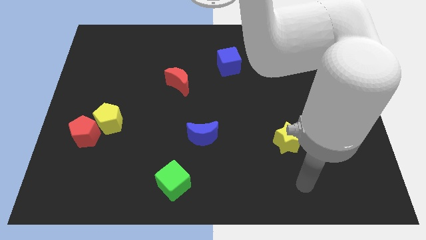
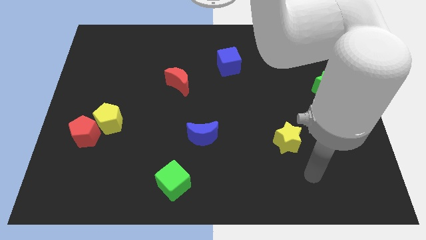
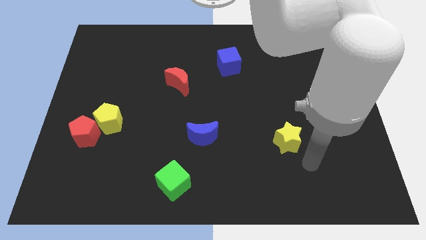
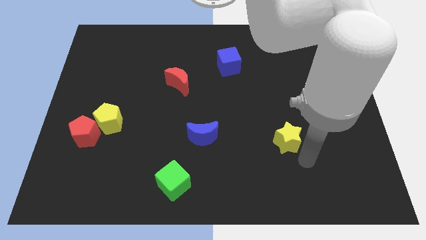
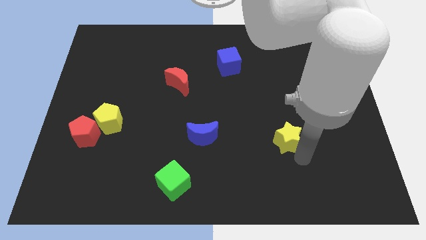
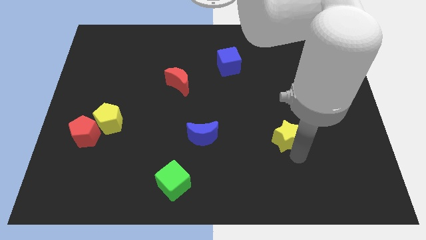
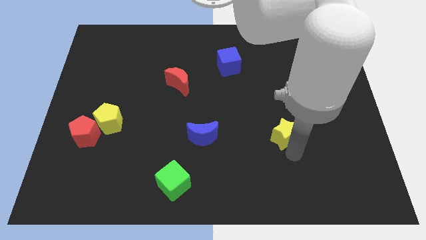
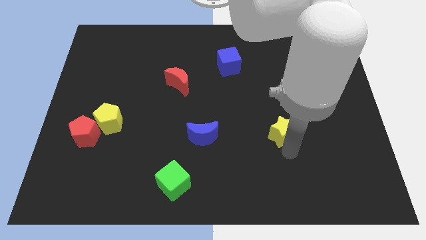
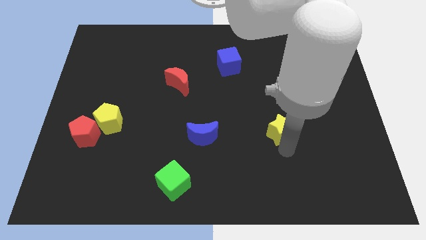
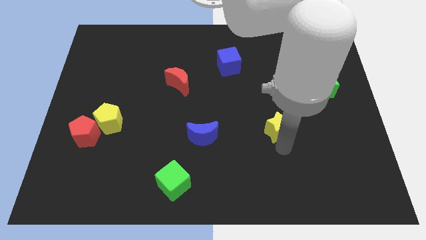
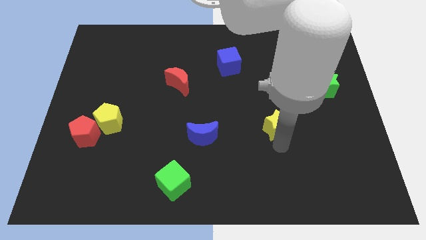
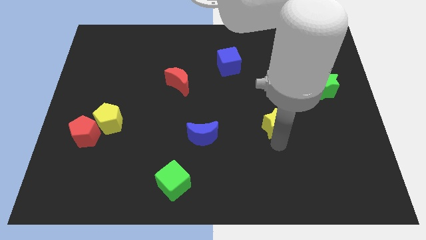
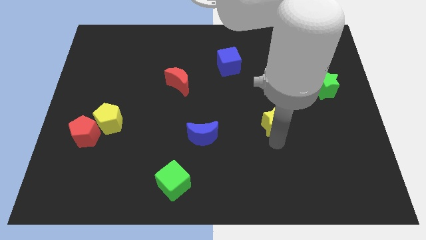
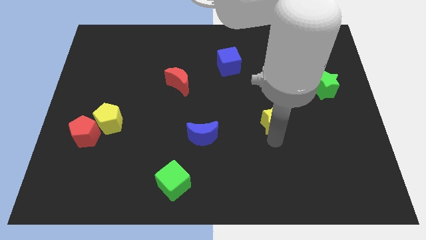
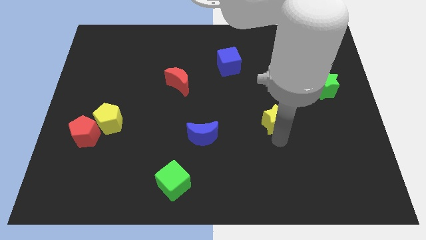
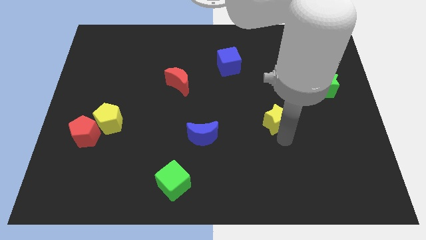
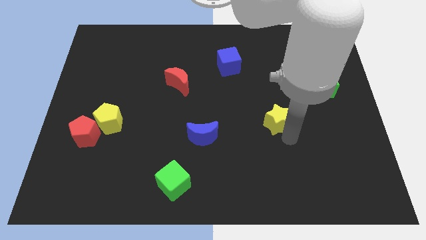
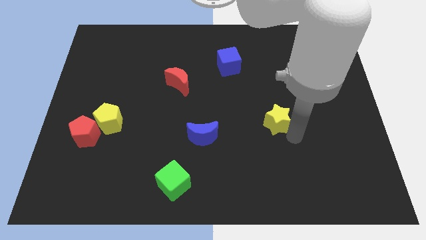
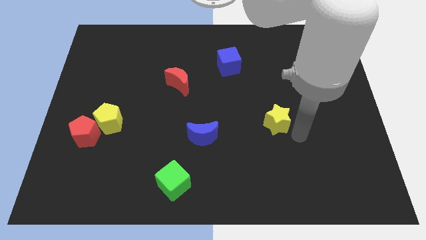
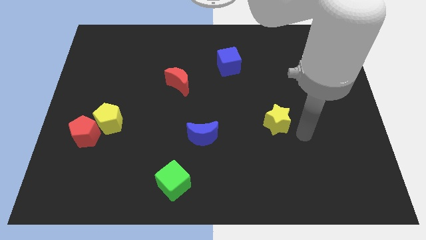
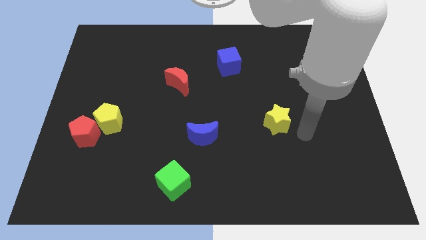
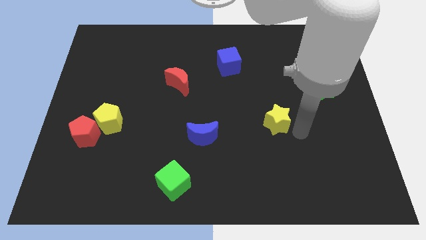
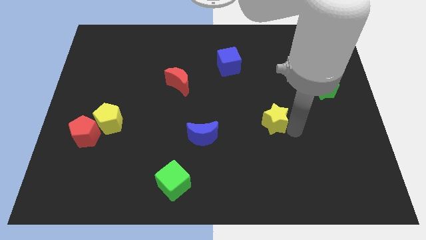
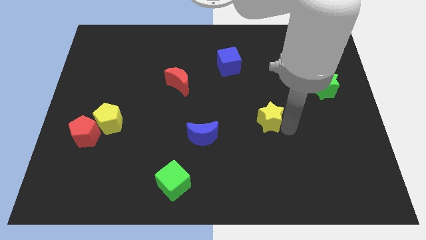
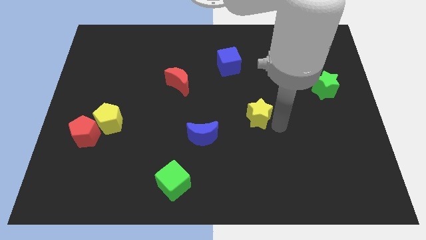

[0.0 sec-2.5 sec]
slightly move the yellow star diagonally upwards and to the left

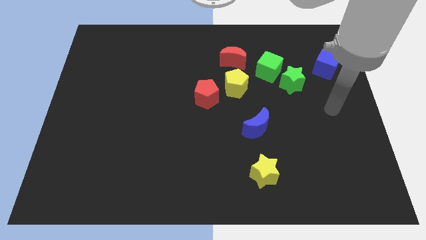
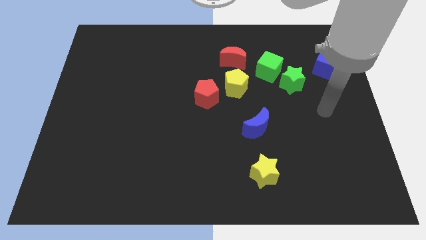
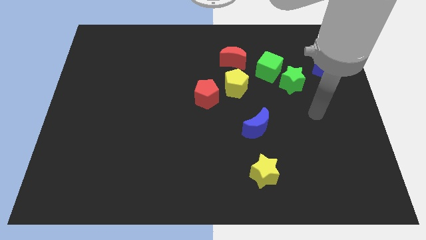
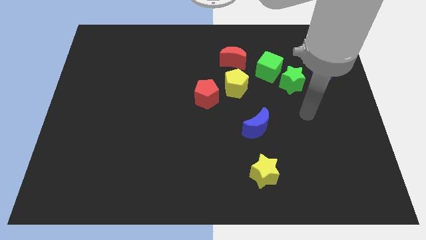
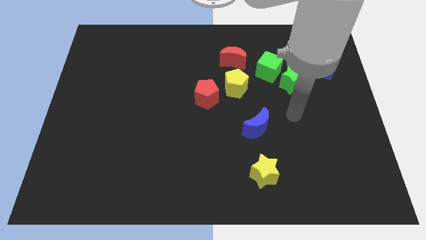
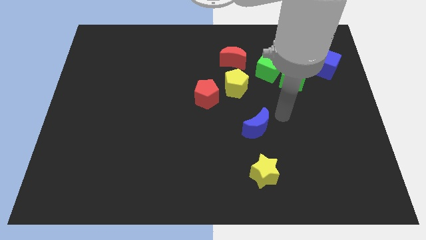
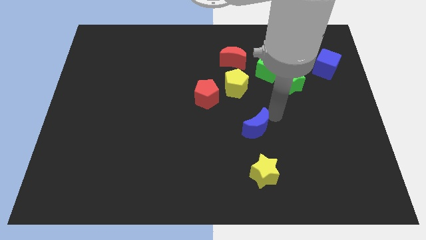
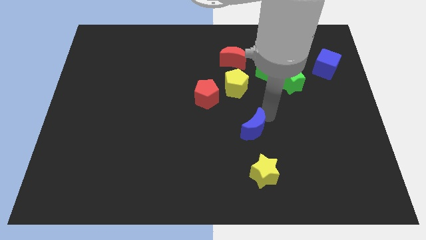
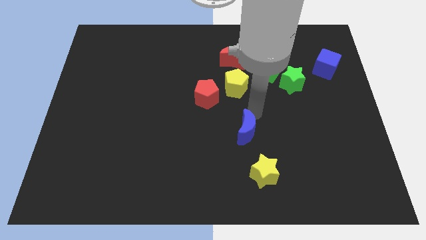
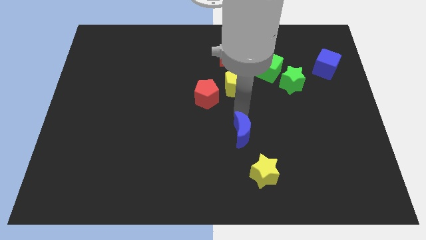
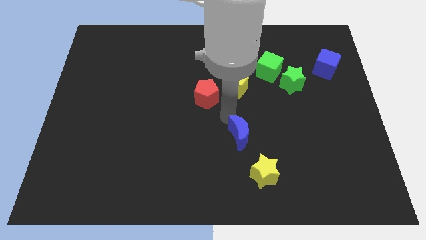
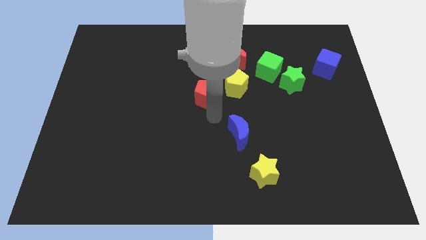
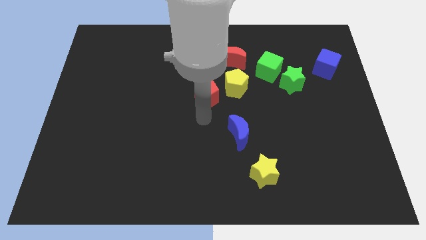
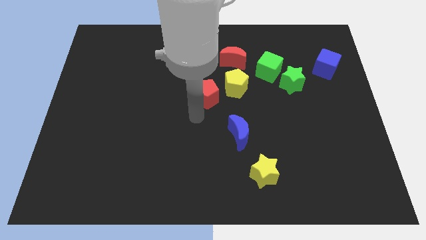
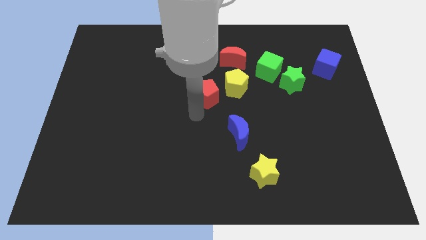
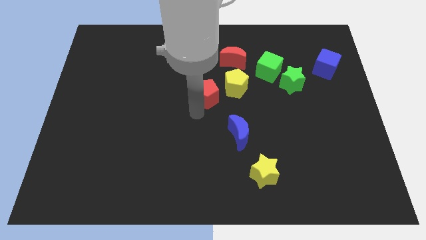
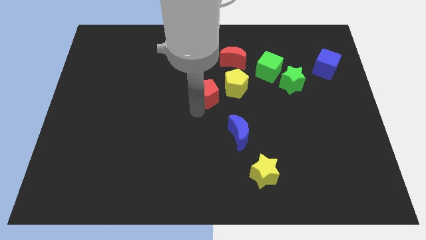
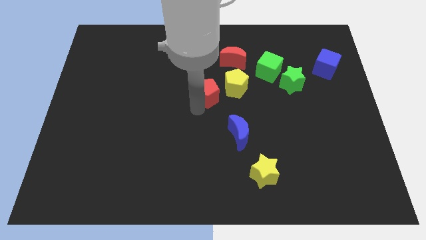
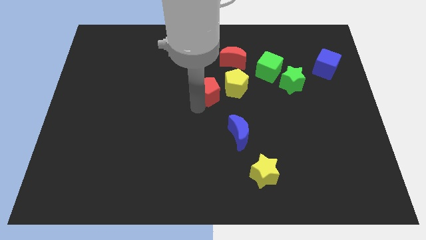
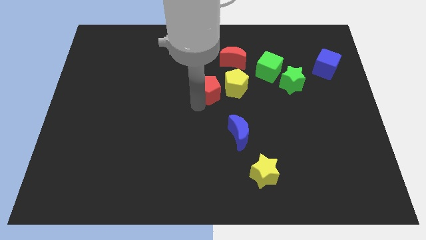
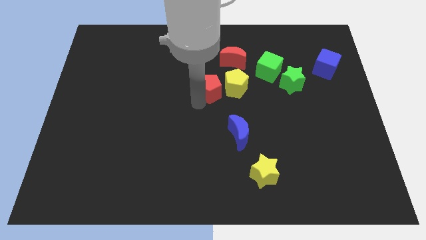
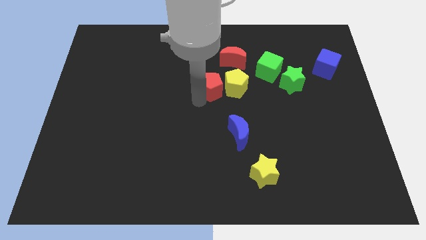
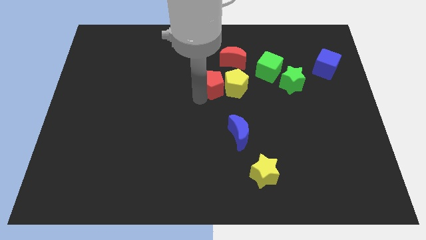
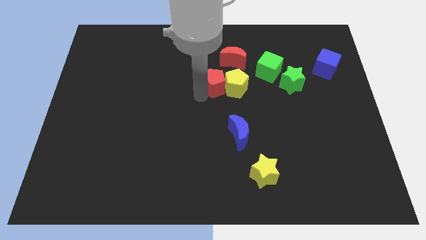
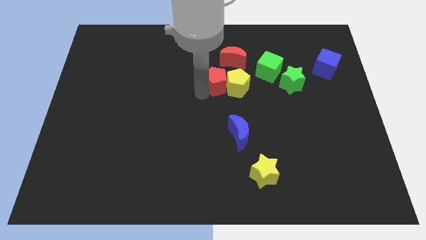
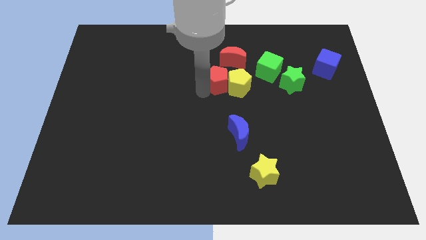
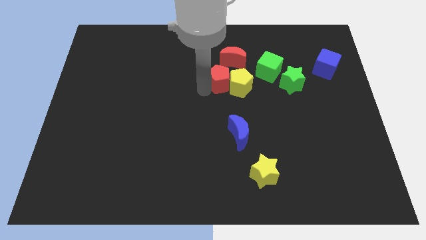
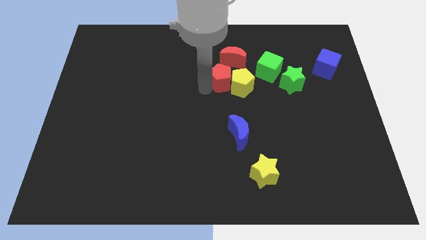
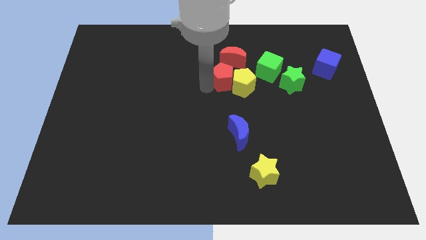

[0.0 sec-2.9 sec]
move the red pentagon up and right diagonally a bit

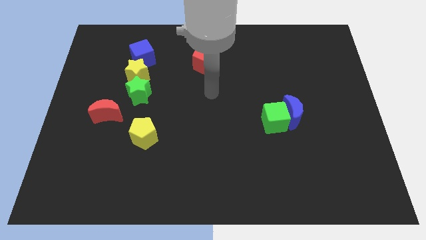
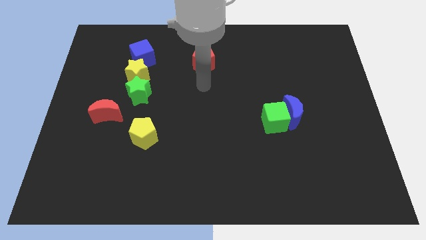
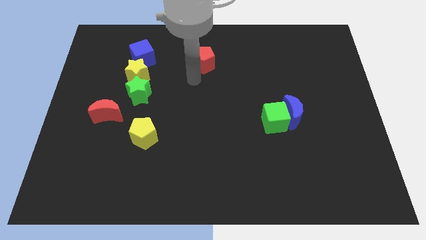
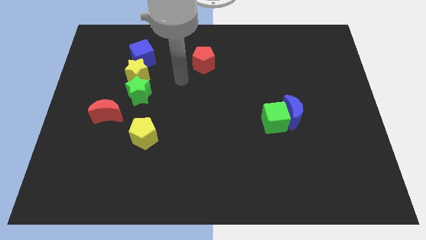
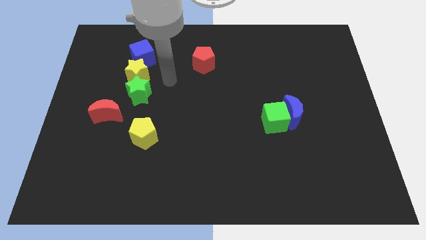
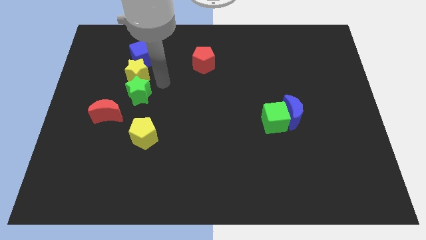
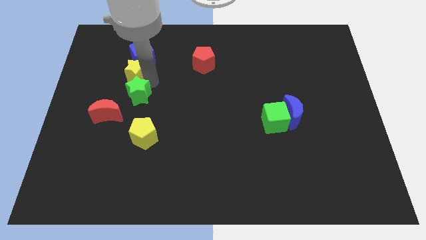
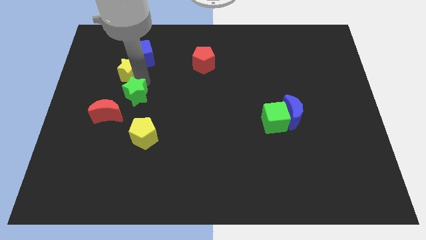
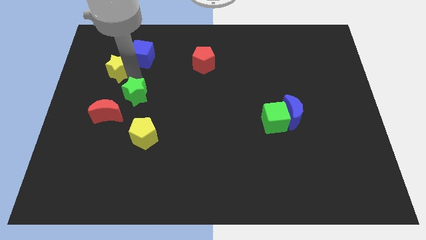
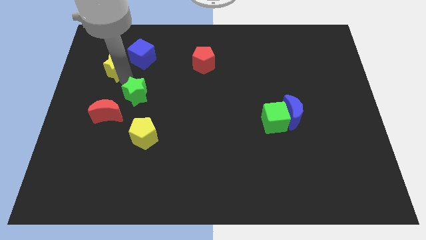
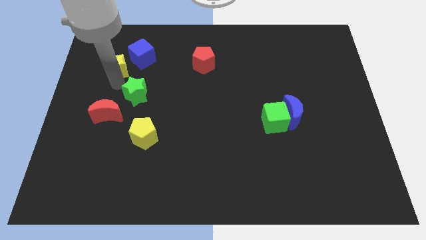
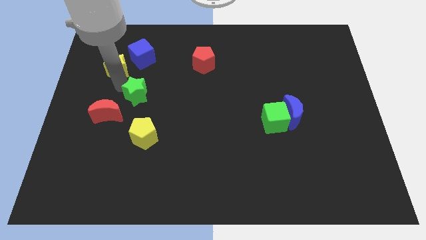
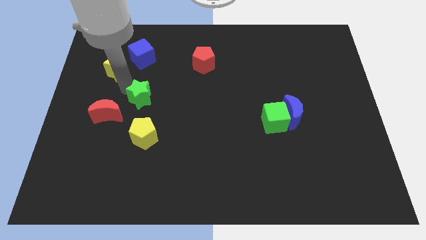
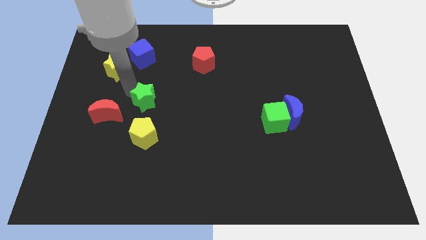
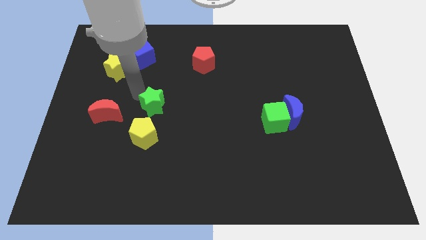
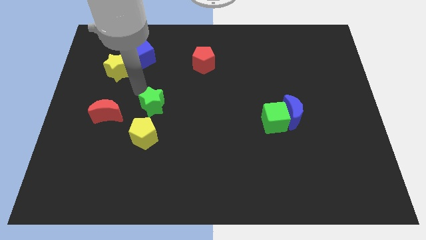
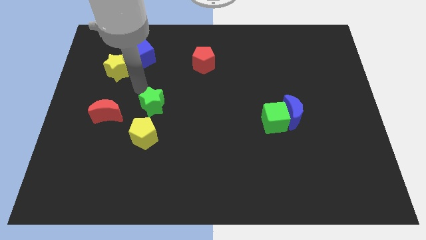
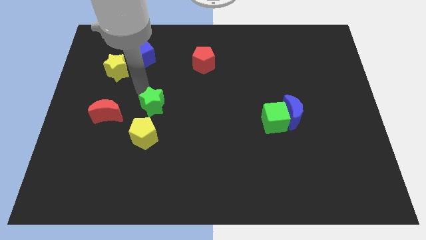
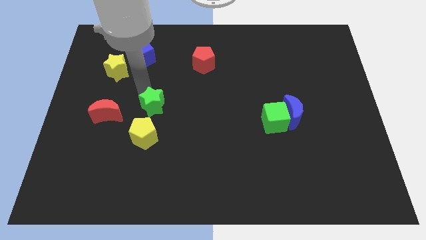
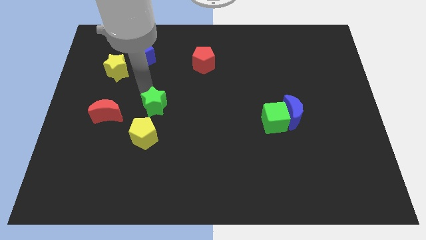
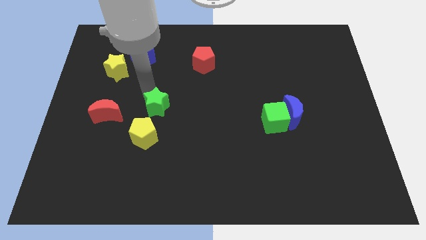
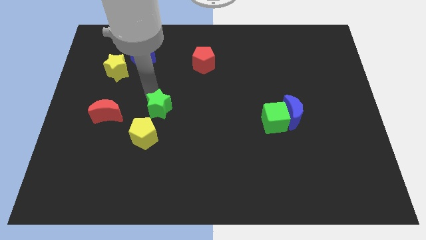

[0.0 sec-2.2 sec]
slightly slide the green star downwards and then right

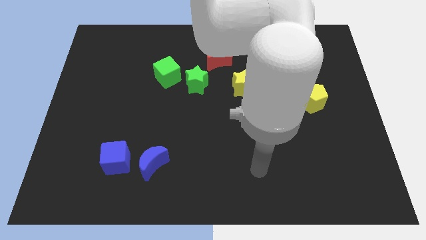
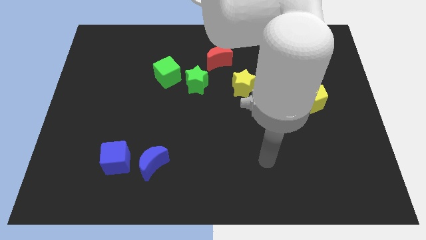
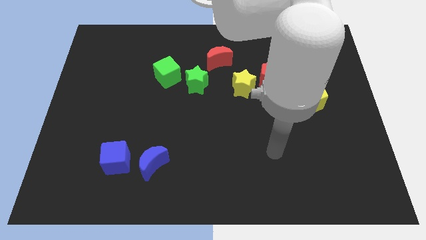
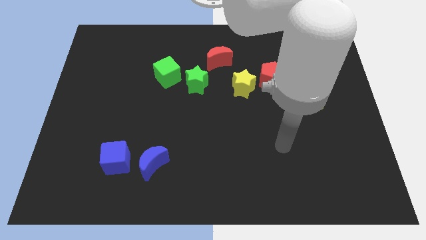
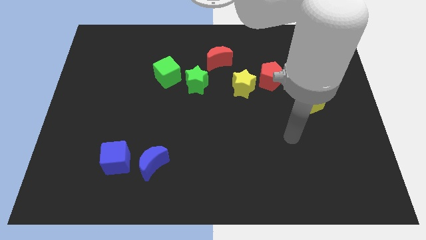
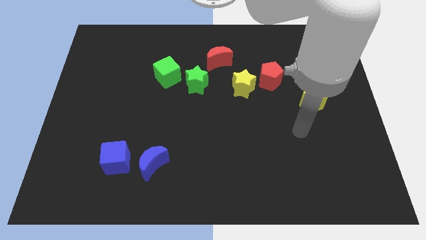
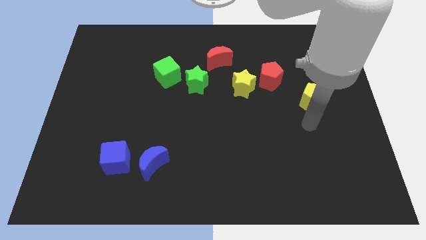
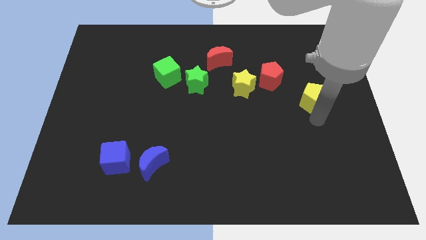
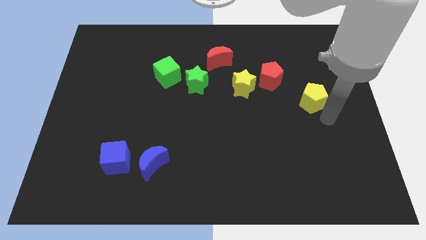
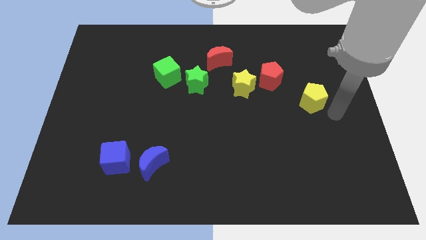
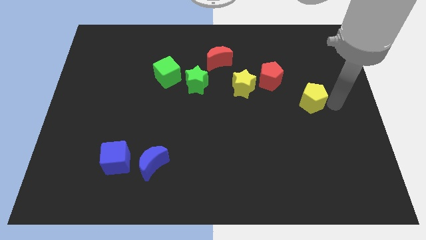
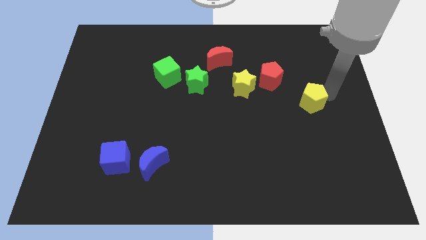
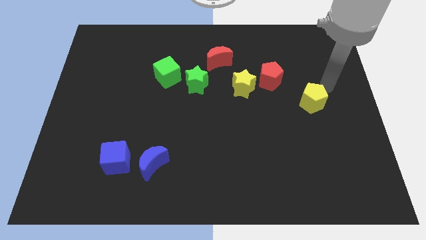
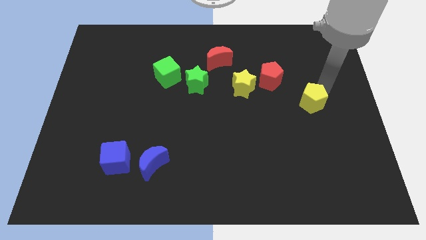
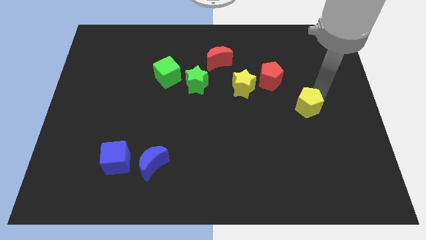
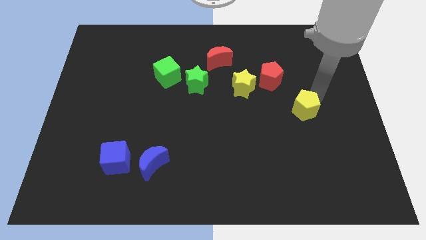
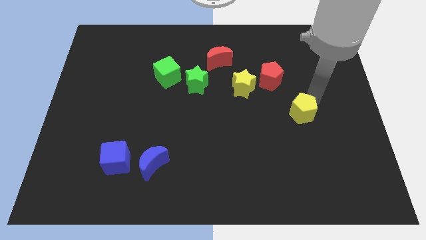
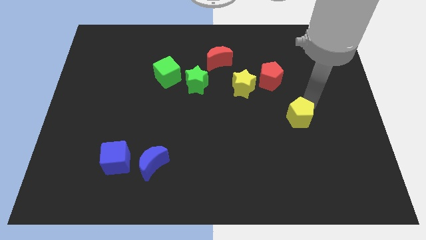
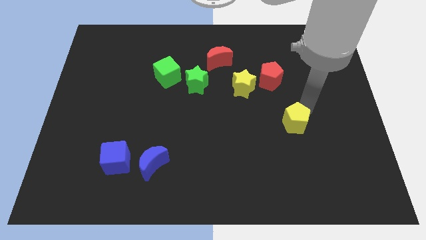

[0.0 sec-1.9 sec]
slide the yellow pentagon diagonally downwards and to the left slightly
